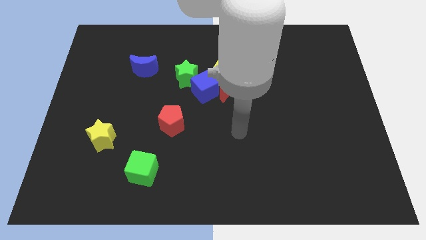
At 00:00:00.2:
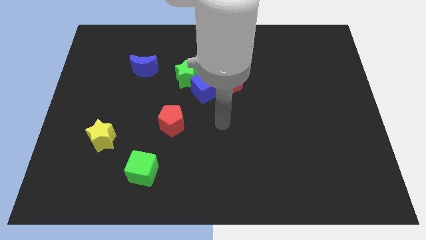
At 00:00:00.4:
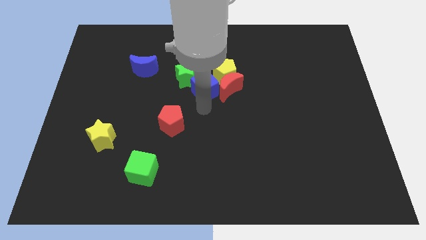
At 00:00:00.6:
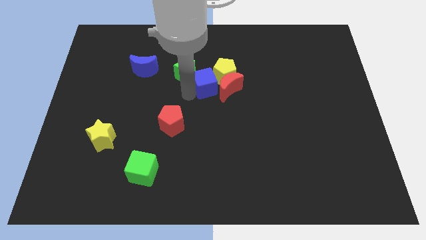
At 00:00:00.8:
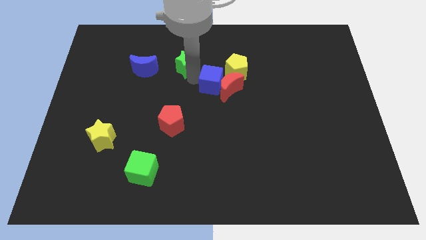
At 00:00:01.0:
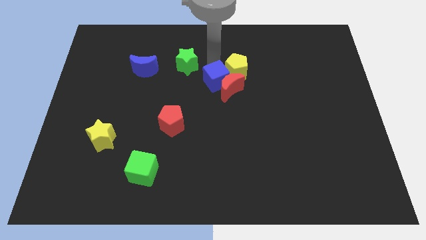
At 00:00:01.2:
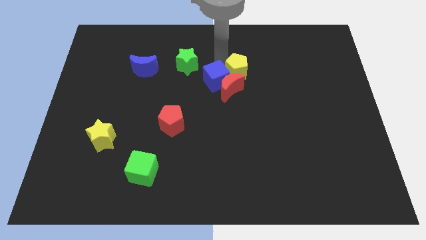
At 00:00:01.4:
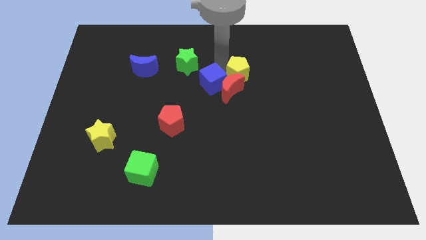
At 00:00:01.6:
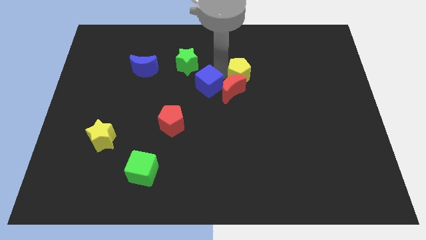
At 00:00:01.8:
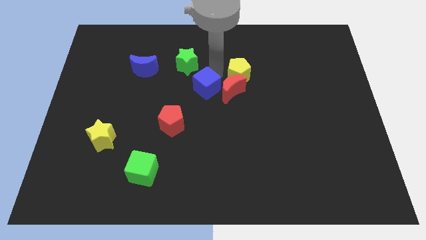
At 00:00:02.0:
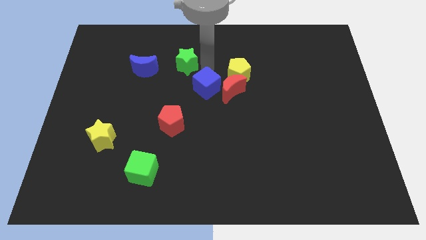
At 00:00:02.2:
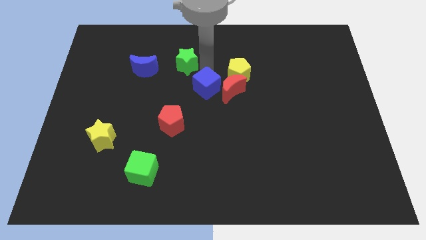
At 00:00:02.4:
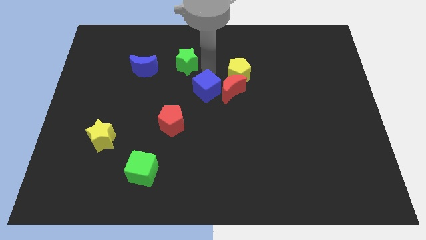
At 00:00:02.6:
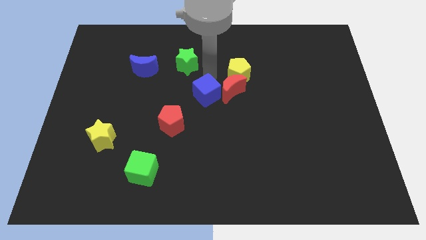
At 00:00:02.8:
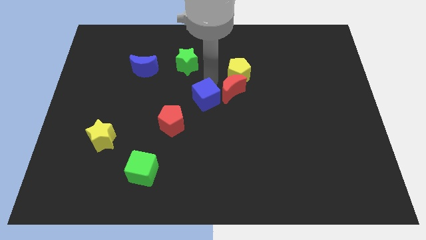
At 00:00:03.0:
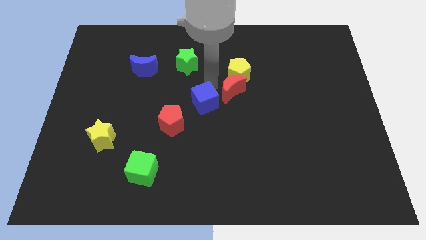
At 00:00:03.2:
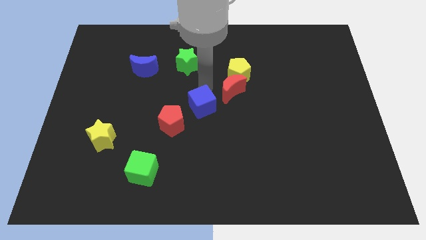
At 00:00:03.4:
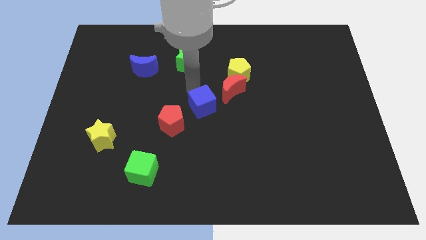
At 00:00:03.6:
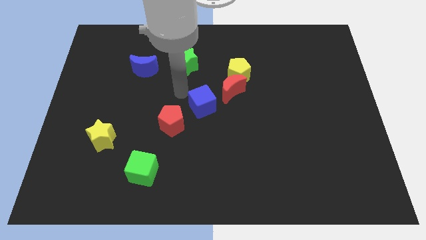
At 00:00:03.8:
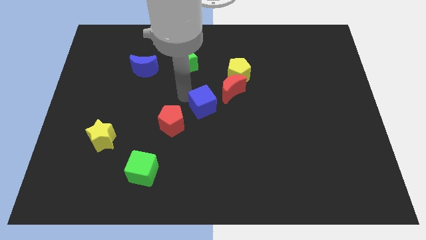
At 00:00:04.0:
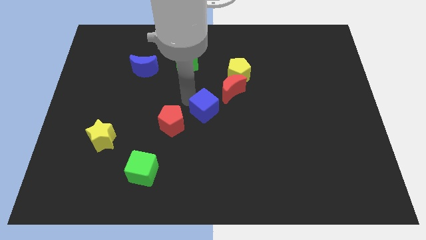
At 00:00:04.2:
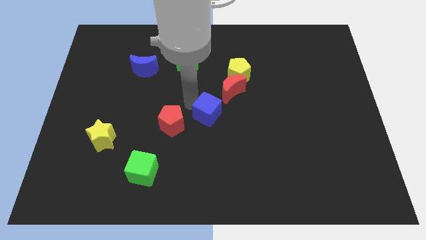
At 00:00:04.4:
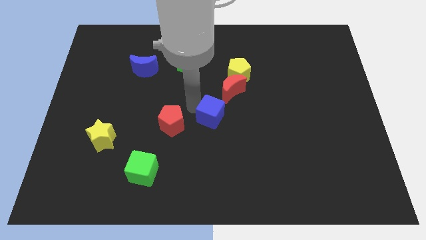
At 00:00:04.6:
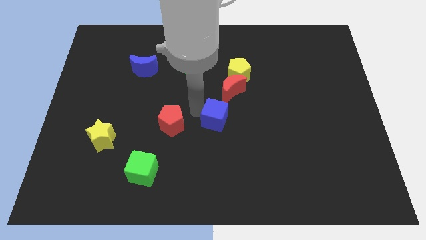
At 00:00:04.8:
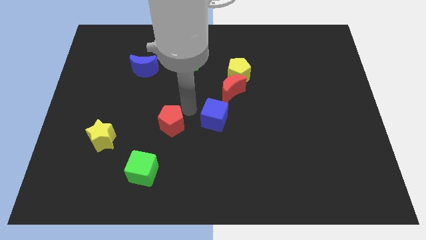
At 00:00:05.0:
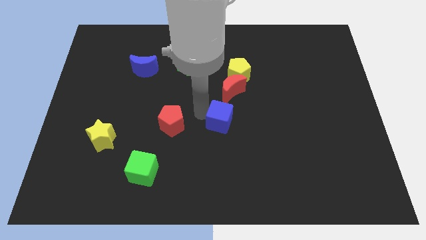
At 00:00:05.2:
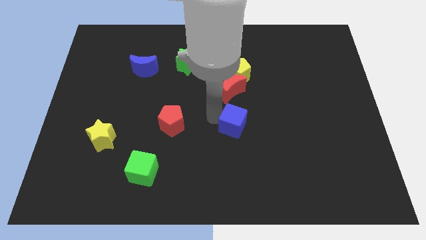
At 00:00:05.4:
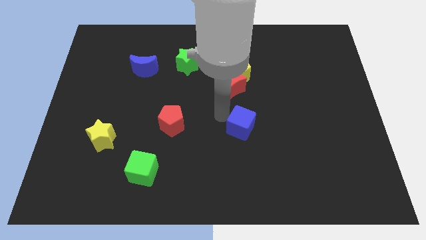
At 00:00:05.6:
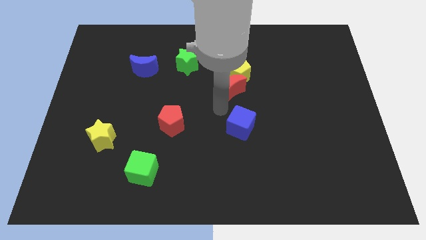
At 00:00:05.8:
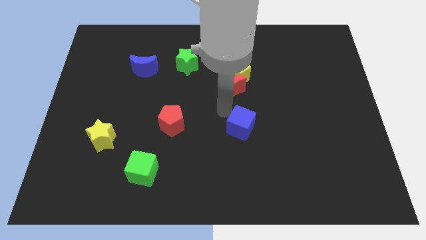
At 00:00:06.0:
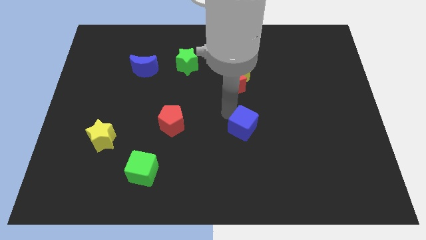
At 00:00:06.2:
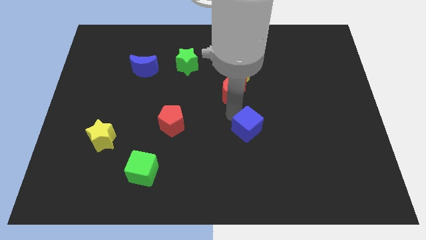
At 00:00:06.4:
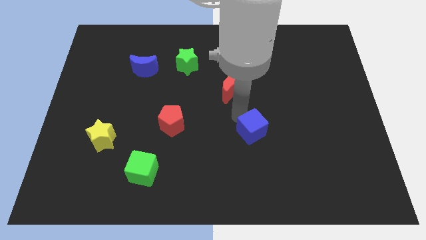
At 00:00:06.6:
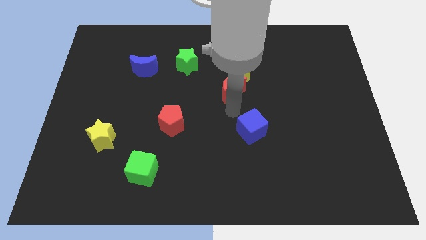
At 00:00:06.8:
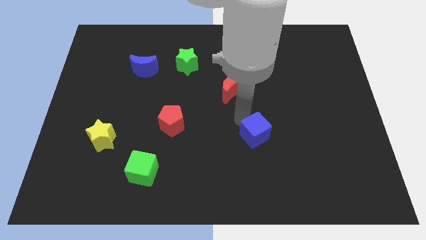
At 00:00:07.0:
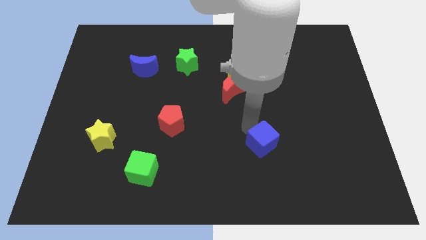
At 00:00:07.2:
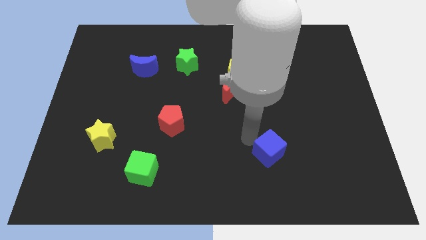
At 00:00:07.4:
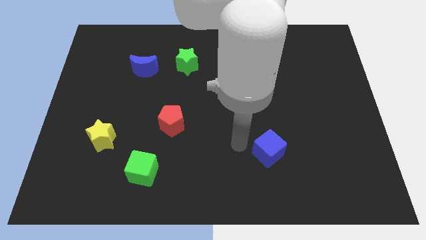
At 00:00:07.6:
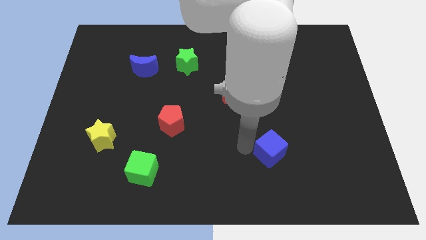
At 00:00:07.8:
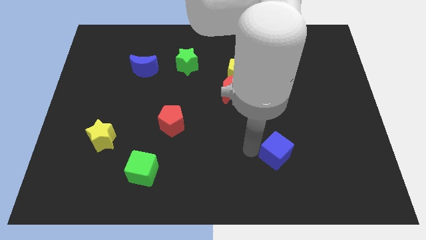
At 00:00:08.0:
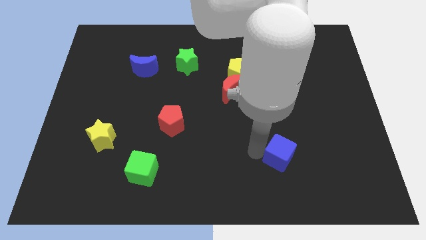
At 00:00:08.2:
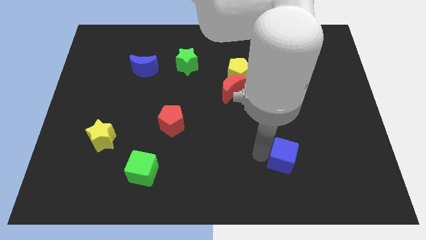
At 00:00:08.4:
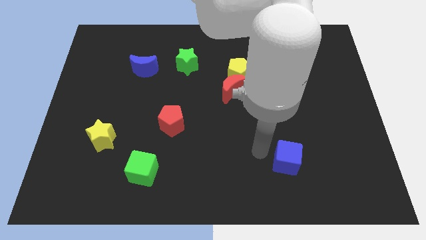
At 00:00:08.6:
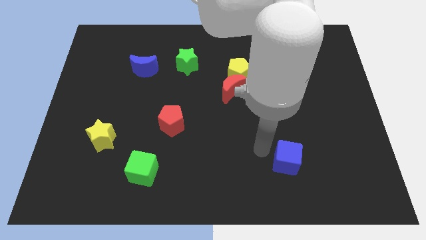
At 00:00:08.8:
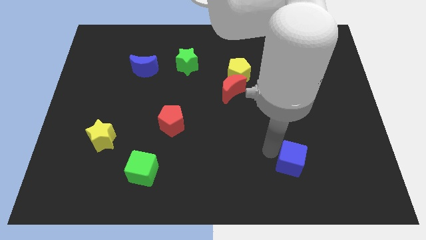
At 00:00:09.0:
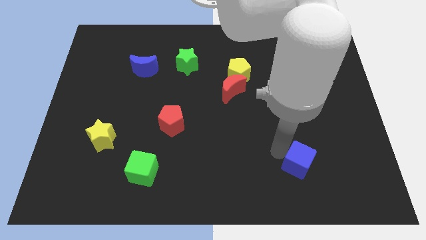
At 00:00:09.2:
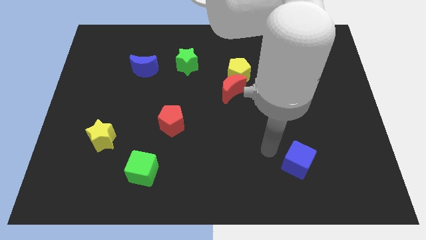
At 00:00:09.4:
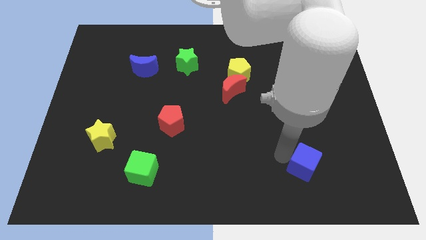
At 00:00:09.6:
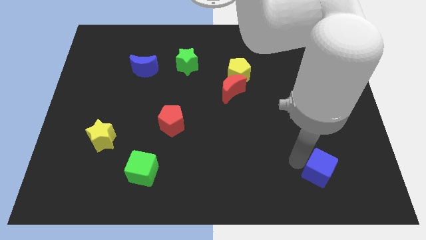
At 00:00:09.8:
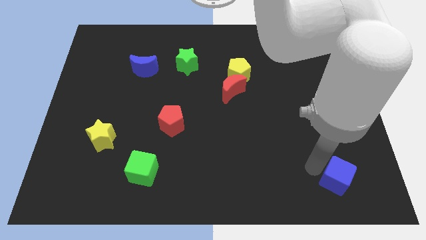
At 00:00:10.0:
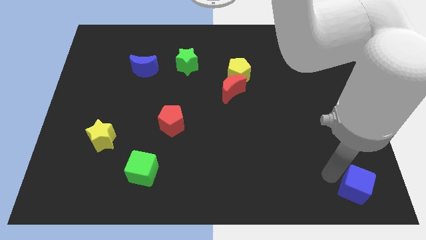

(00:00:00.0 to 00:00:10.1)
move the blue cube to the bottom right corner

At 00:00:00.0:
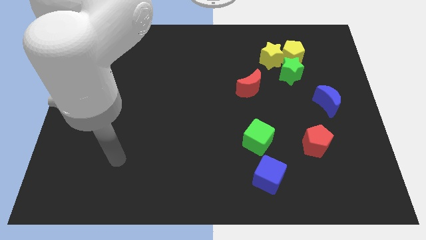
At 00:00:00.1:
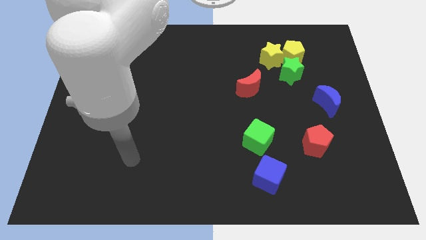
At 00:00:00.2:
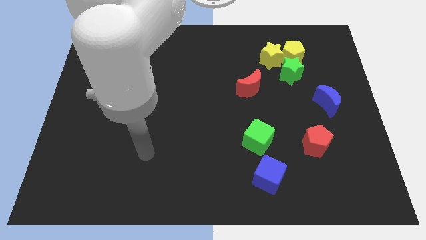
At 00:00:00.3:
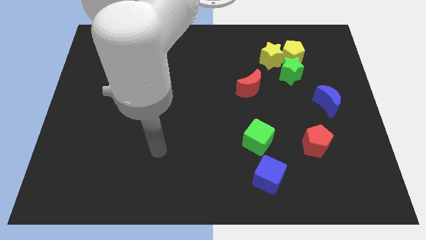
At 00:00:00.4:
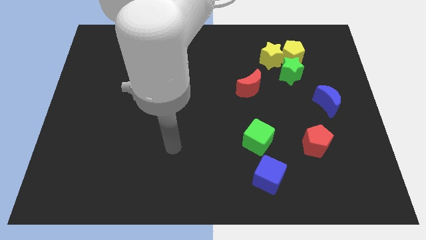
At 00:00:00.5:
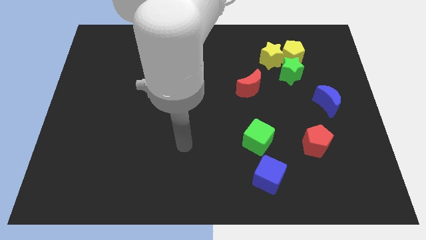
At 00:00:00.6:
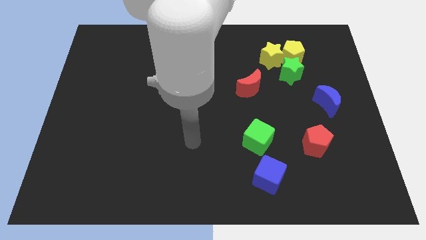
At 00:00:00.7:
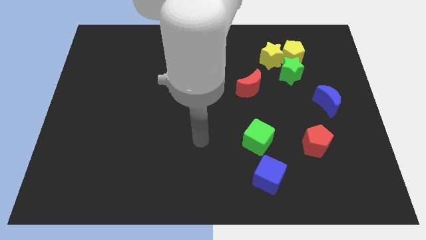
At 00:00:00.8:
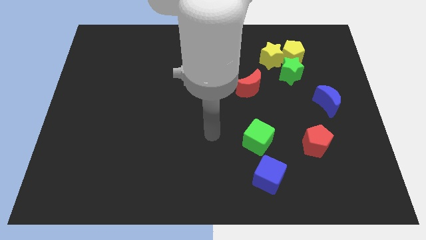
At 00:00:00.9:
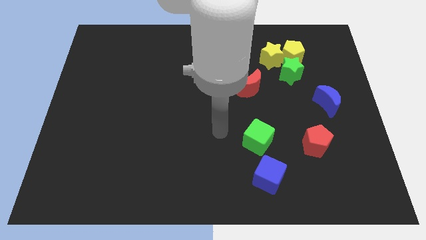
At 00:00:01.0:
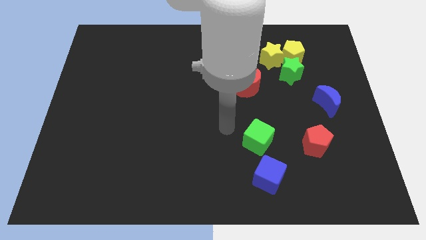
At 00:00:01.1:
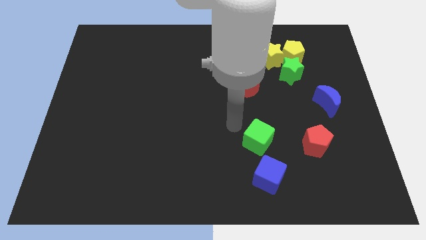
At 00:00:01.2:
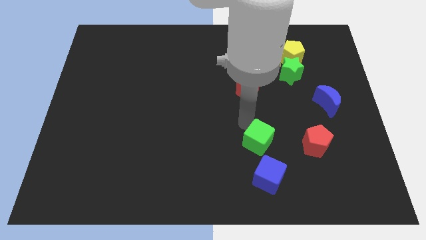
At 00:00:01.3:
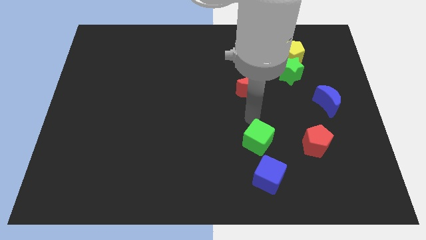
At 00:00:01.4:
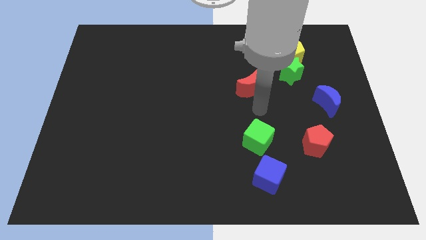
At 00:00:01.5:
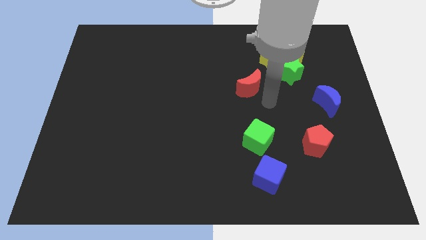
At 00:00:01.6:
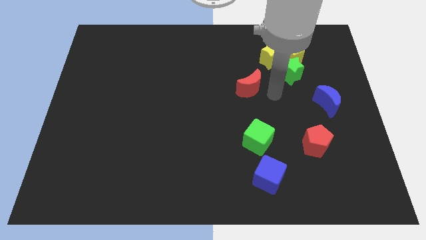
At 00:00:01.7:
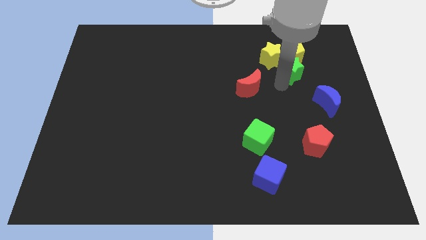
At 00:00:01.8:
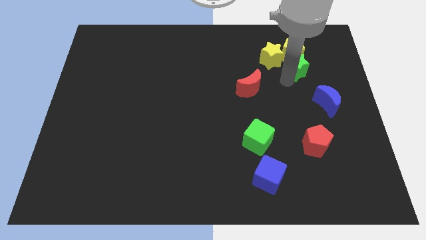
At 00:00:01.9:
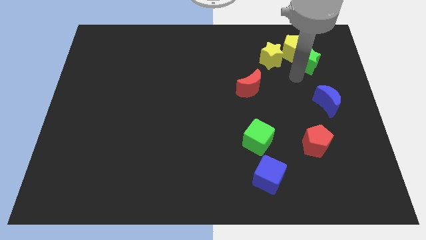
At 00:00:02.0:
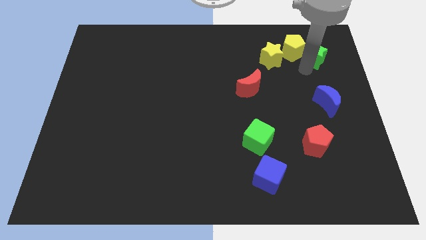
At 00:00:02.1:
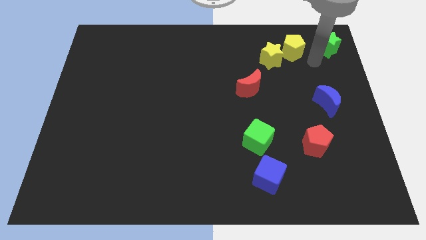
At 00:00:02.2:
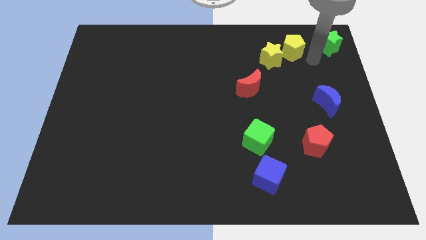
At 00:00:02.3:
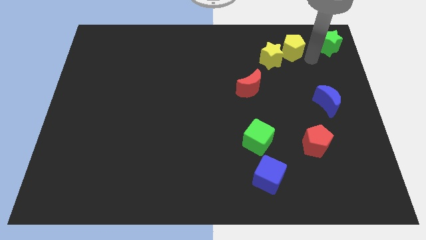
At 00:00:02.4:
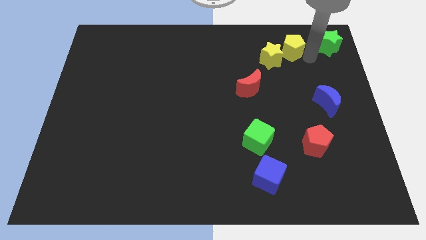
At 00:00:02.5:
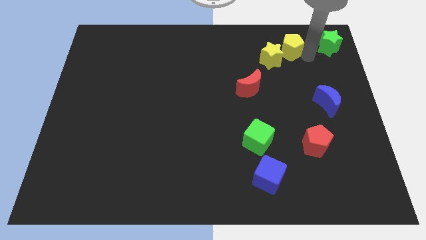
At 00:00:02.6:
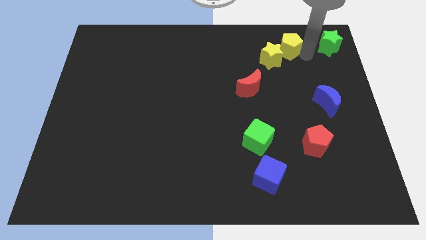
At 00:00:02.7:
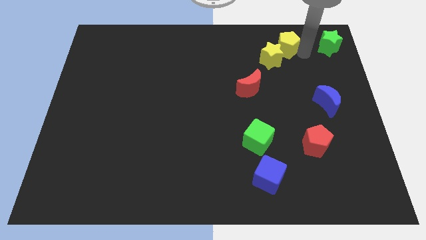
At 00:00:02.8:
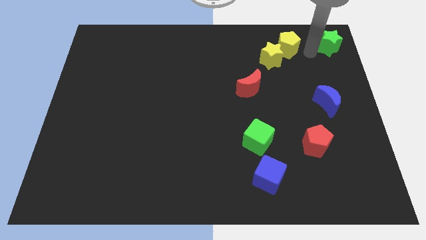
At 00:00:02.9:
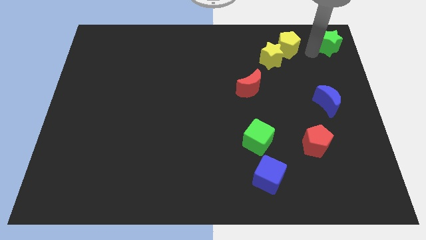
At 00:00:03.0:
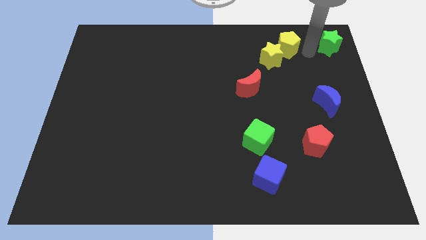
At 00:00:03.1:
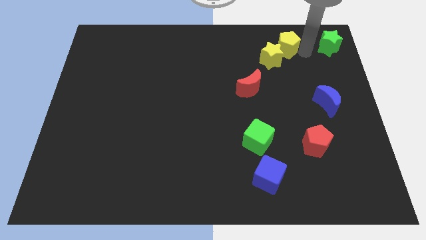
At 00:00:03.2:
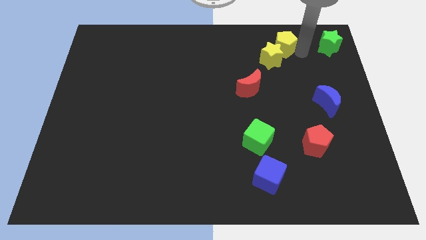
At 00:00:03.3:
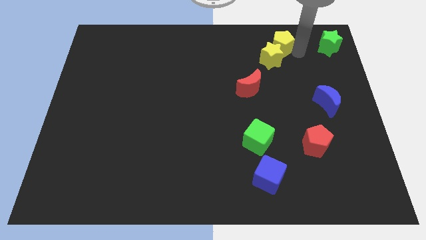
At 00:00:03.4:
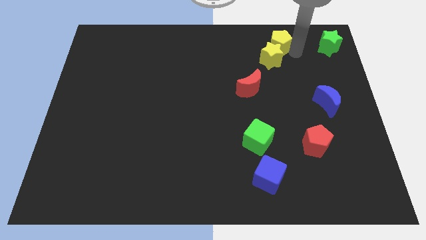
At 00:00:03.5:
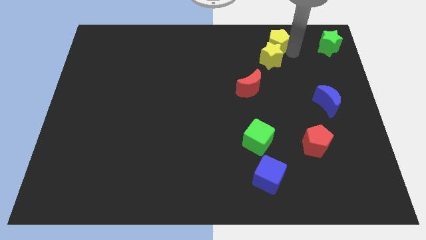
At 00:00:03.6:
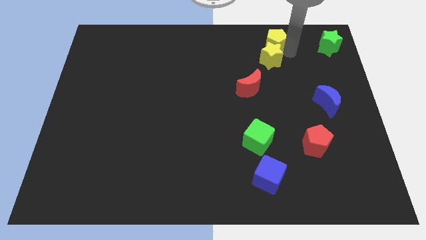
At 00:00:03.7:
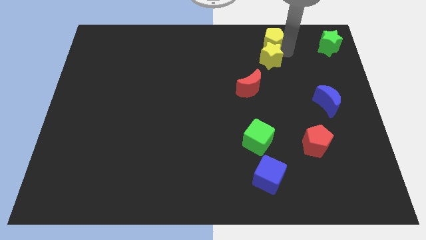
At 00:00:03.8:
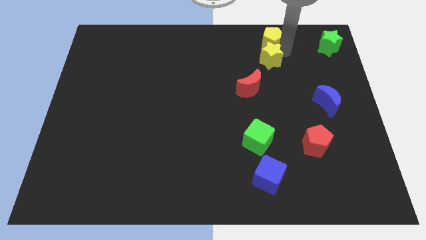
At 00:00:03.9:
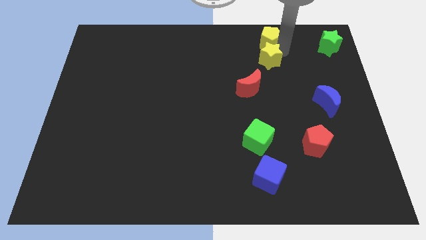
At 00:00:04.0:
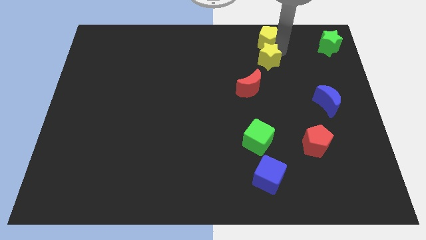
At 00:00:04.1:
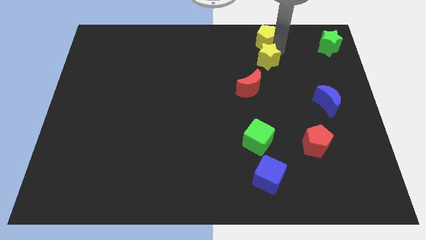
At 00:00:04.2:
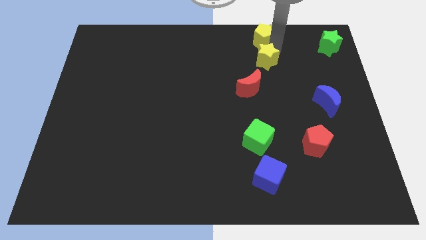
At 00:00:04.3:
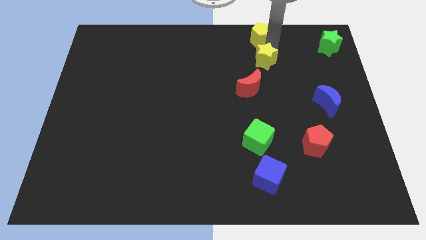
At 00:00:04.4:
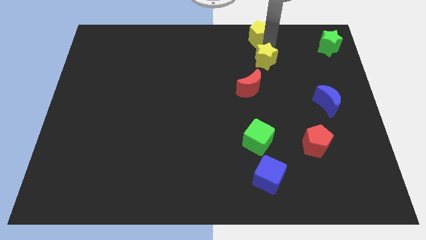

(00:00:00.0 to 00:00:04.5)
put the yellow pentagon to the towards your base
